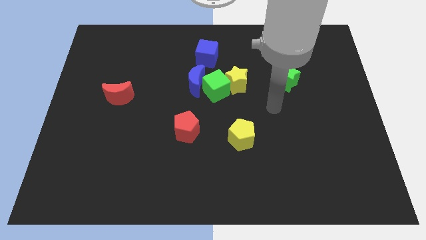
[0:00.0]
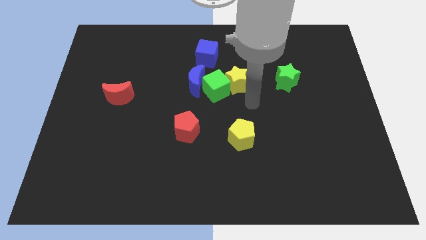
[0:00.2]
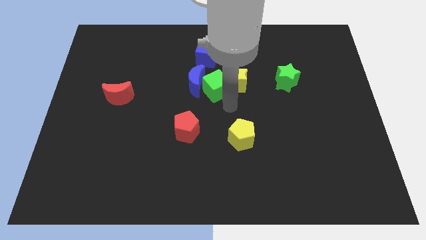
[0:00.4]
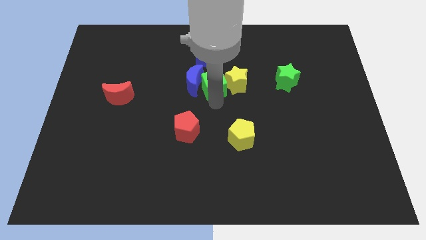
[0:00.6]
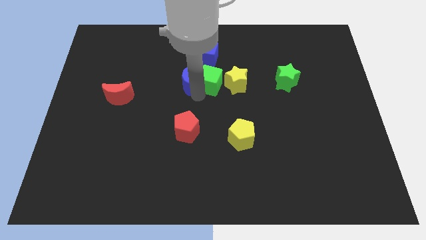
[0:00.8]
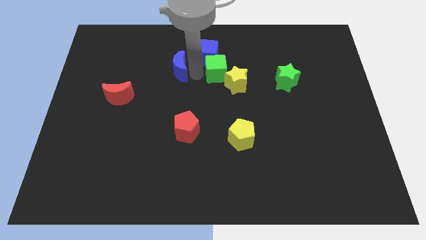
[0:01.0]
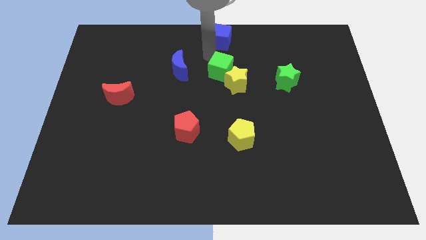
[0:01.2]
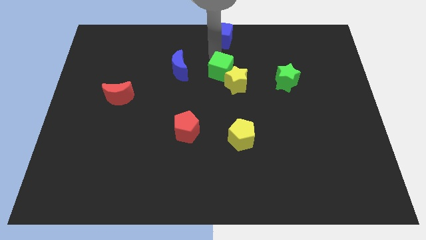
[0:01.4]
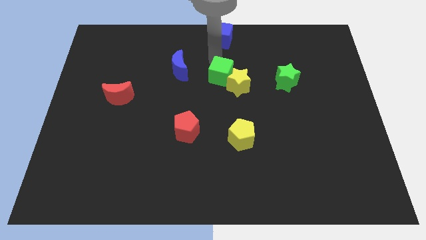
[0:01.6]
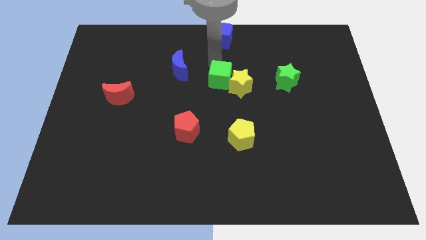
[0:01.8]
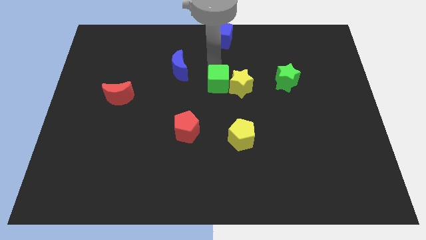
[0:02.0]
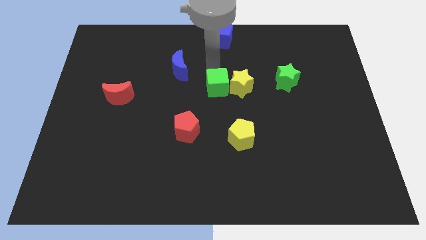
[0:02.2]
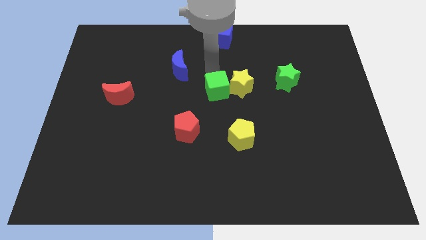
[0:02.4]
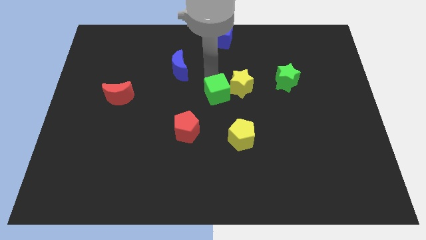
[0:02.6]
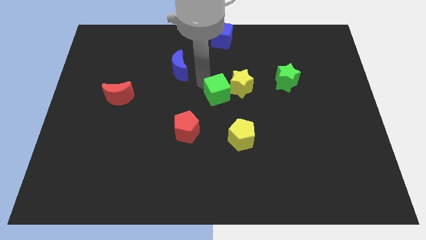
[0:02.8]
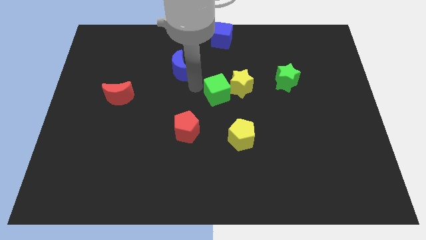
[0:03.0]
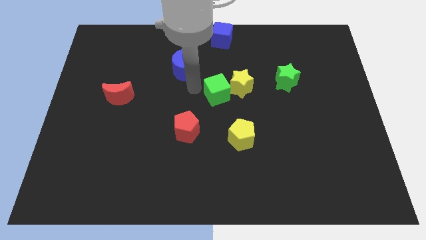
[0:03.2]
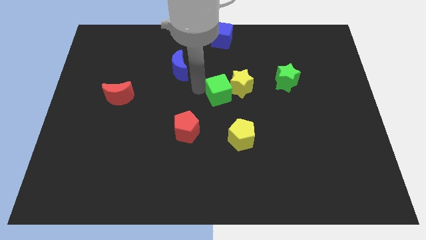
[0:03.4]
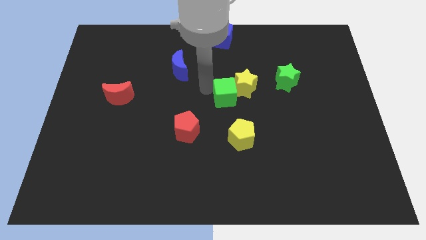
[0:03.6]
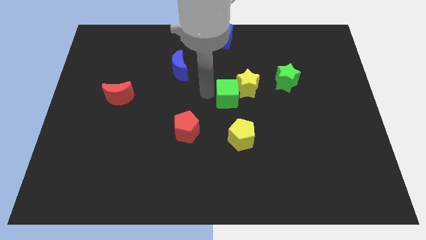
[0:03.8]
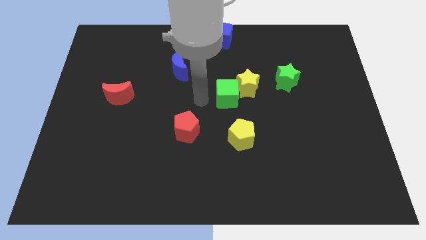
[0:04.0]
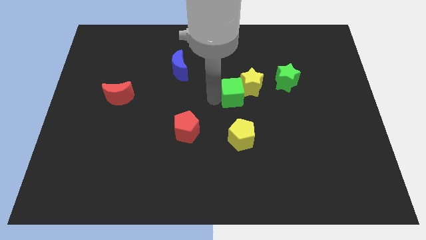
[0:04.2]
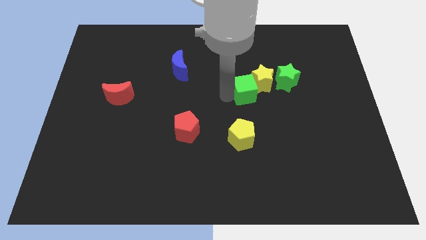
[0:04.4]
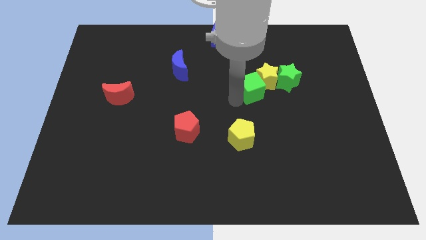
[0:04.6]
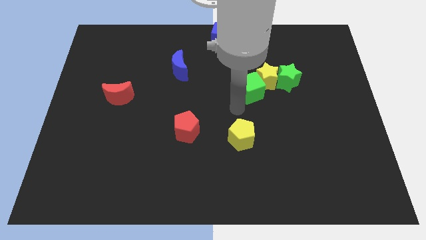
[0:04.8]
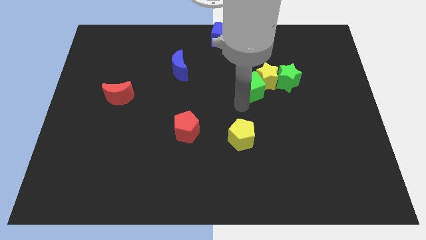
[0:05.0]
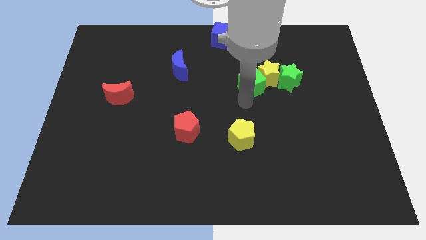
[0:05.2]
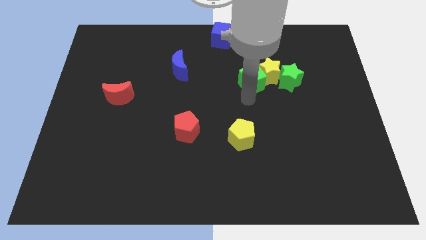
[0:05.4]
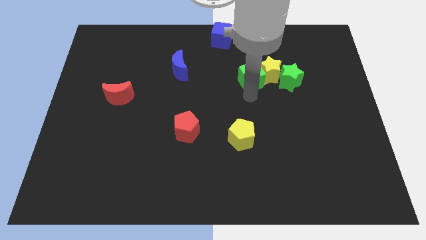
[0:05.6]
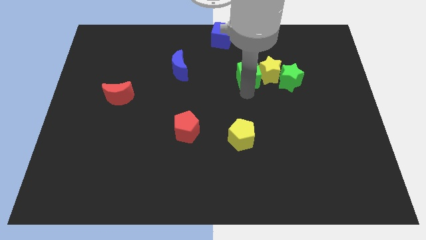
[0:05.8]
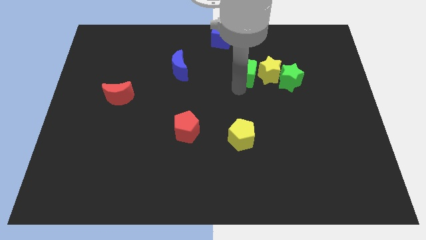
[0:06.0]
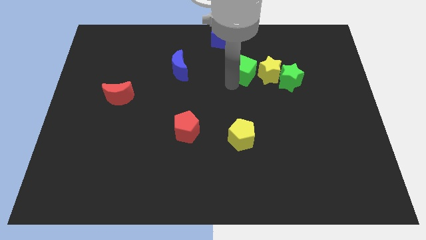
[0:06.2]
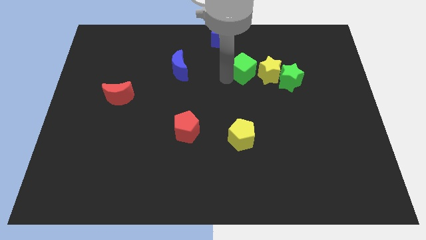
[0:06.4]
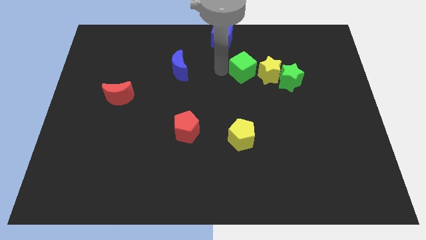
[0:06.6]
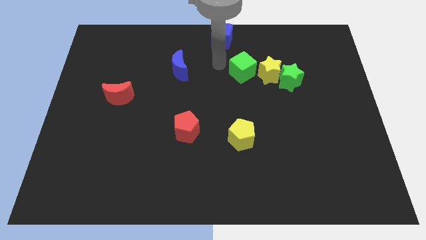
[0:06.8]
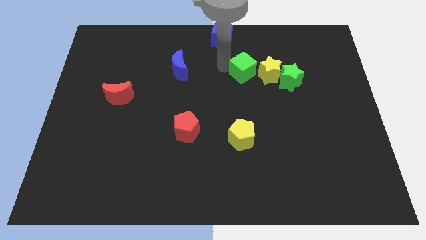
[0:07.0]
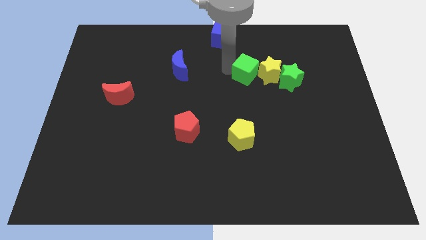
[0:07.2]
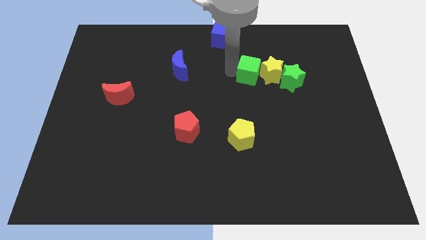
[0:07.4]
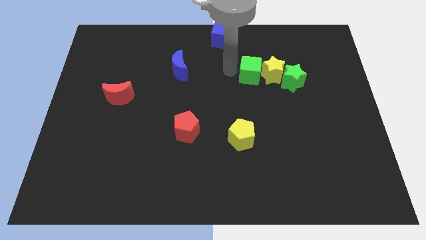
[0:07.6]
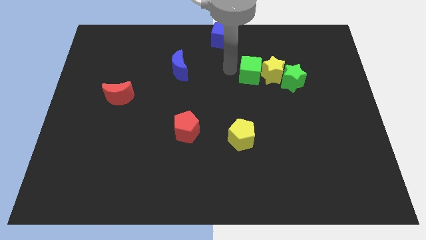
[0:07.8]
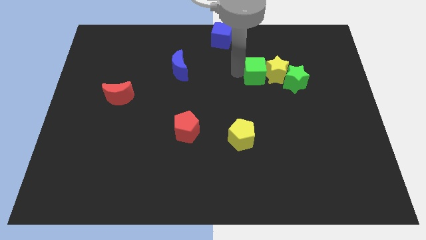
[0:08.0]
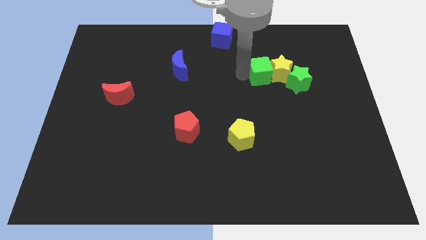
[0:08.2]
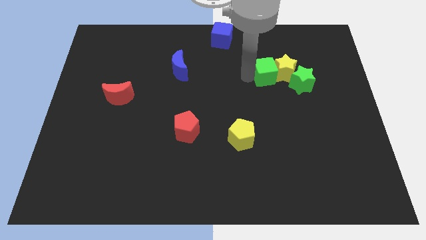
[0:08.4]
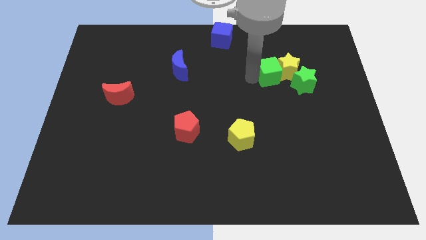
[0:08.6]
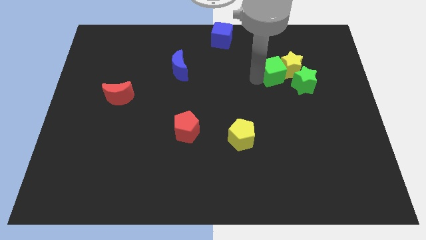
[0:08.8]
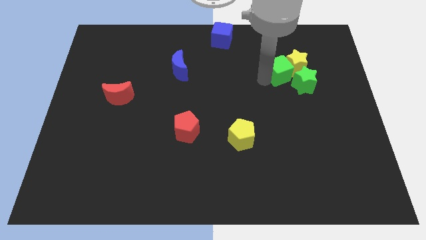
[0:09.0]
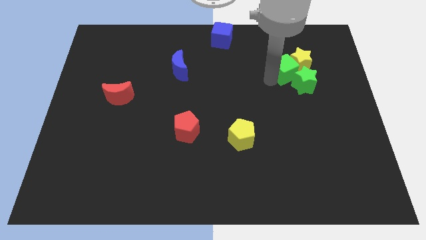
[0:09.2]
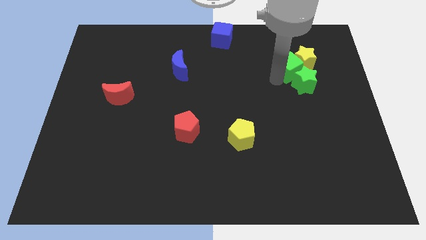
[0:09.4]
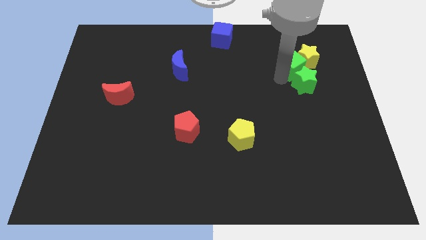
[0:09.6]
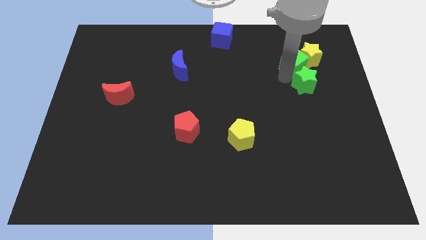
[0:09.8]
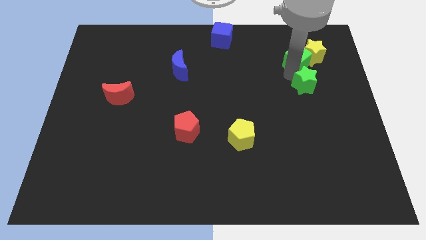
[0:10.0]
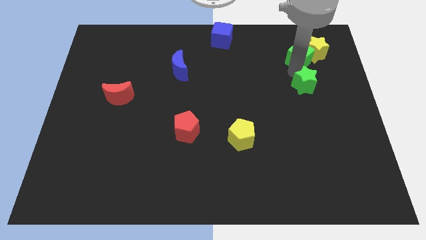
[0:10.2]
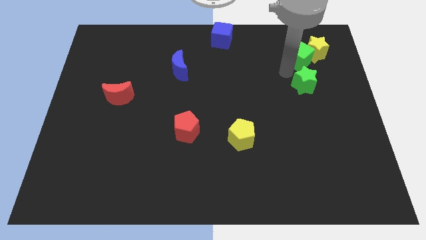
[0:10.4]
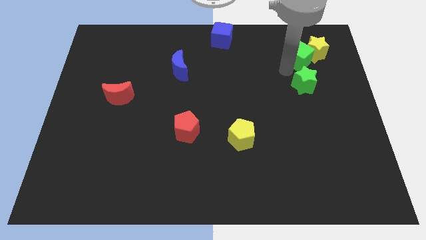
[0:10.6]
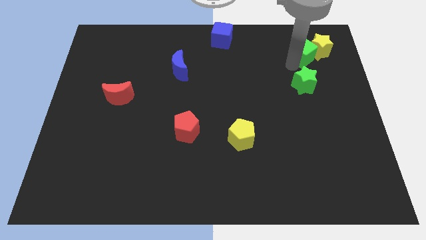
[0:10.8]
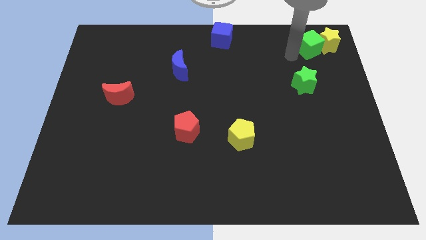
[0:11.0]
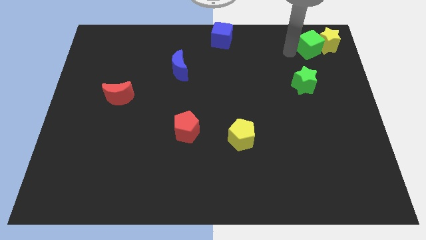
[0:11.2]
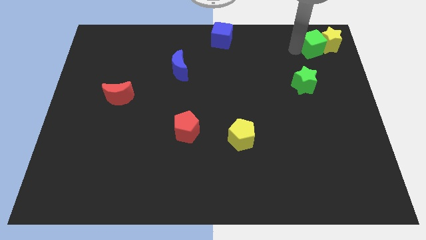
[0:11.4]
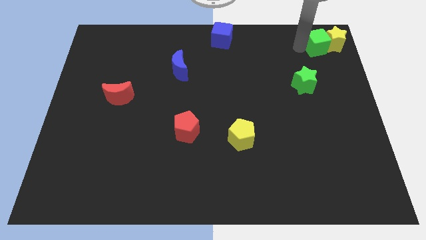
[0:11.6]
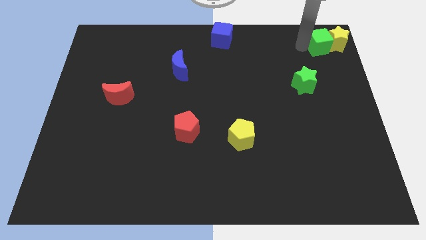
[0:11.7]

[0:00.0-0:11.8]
put the green cube to the top right of the board
